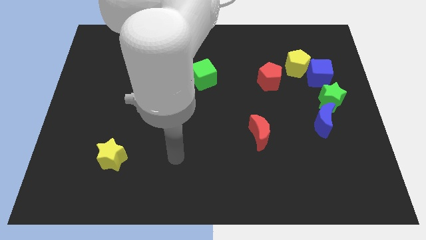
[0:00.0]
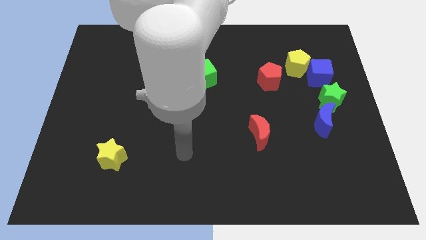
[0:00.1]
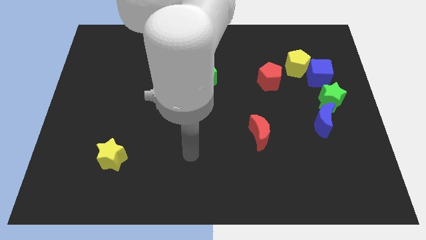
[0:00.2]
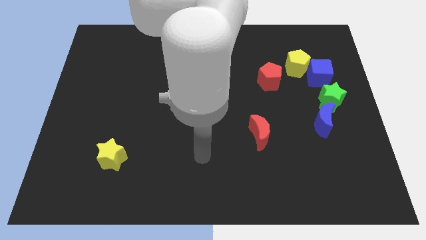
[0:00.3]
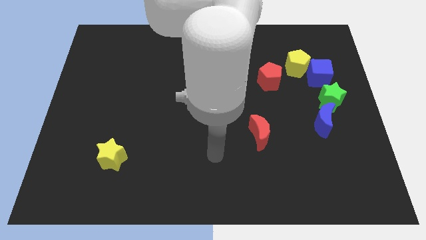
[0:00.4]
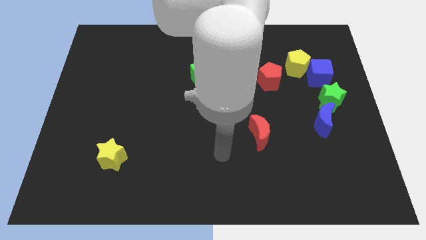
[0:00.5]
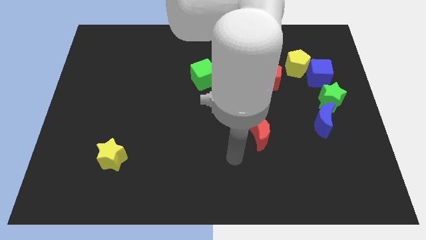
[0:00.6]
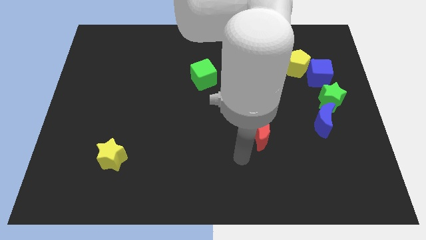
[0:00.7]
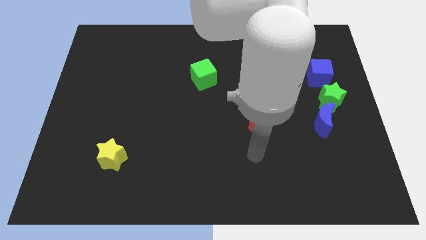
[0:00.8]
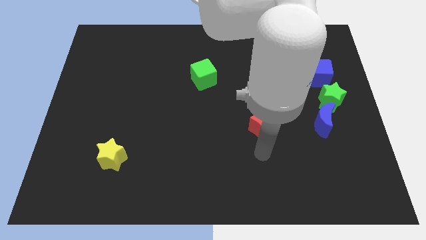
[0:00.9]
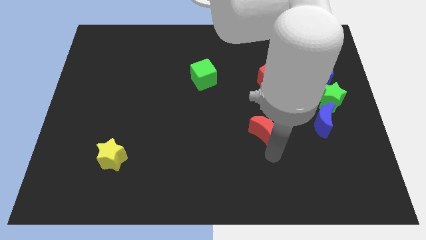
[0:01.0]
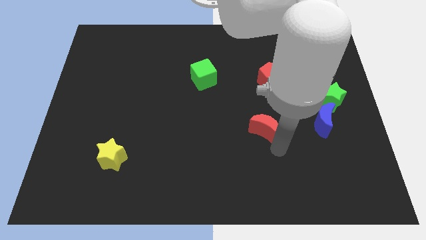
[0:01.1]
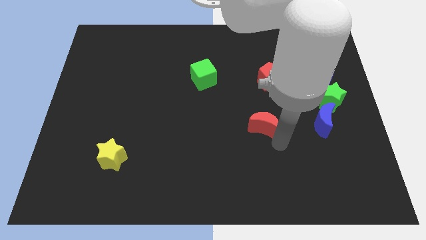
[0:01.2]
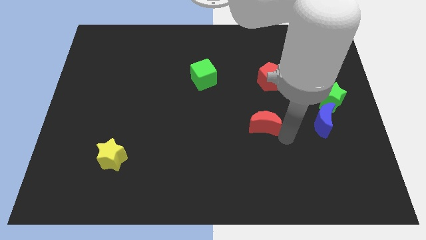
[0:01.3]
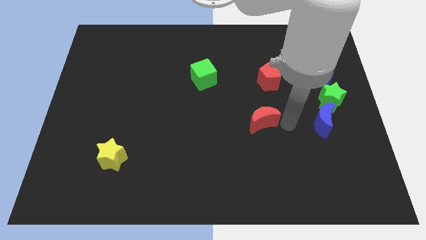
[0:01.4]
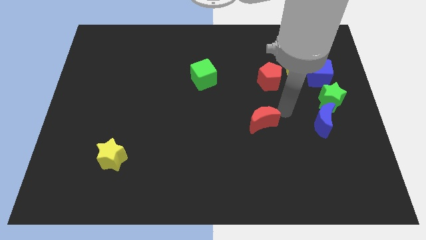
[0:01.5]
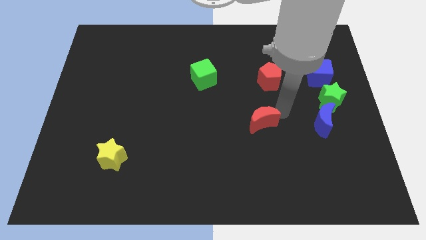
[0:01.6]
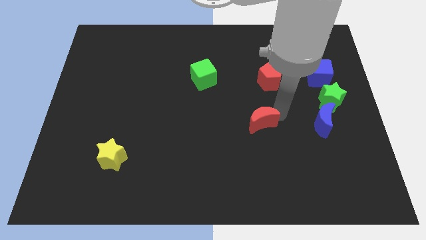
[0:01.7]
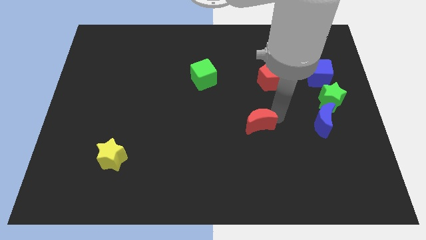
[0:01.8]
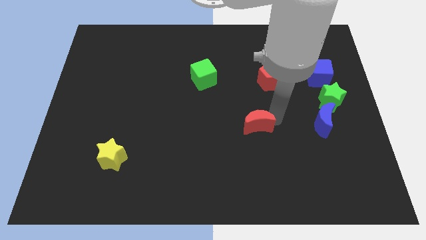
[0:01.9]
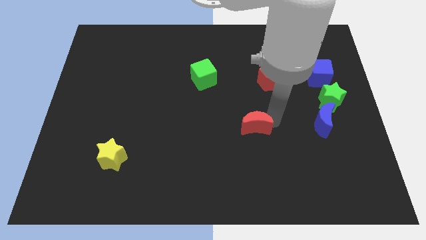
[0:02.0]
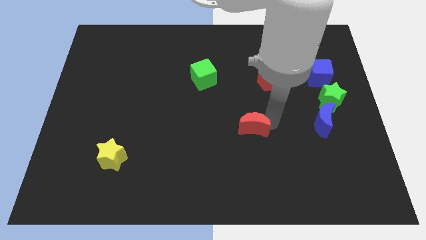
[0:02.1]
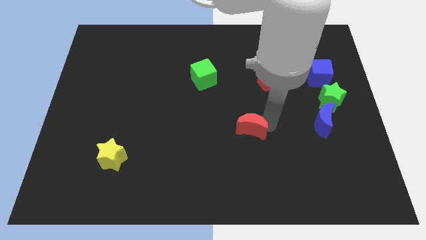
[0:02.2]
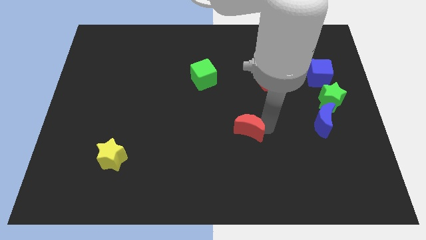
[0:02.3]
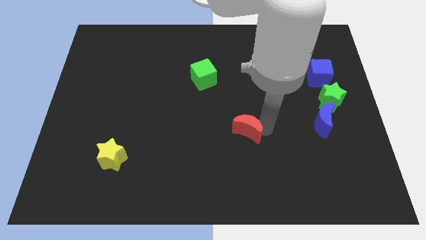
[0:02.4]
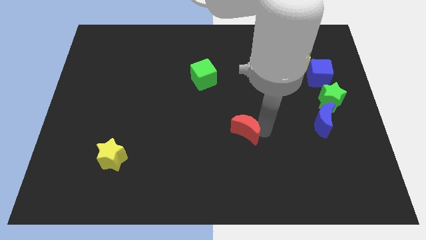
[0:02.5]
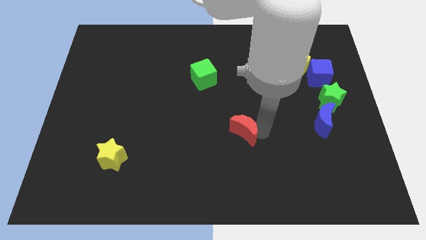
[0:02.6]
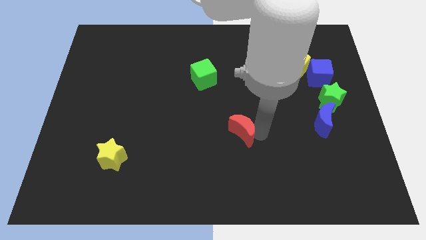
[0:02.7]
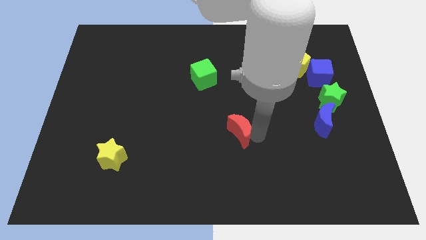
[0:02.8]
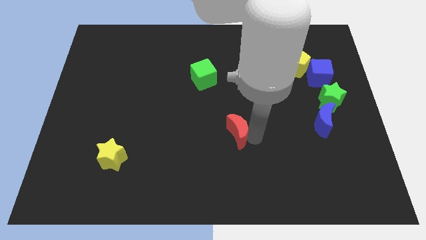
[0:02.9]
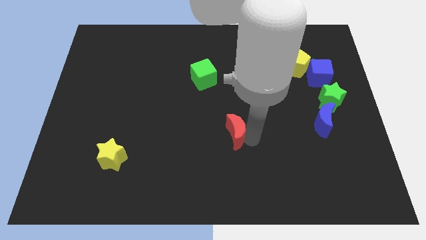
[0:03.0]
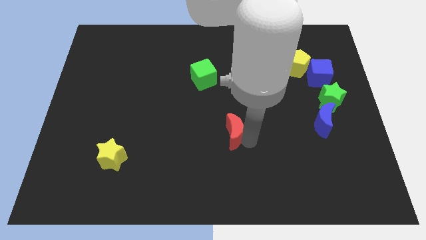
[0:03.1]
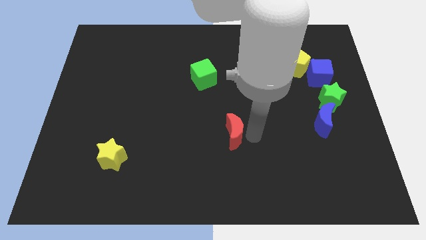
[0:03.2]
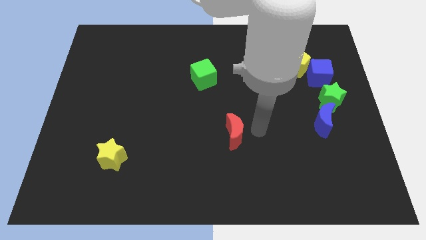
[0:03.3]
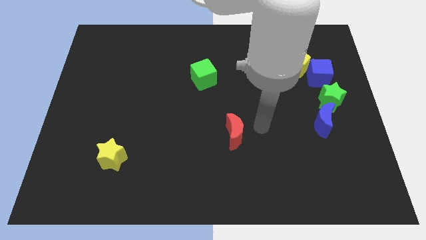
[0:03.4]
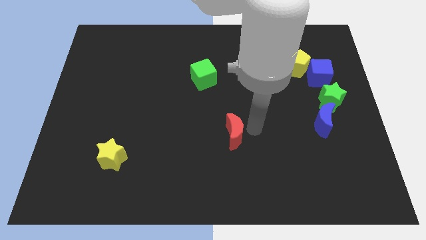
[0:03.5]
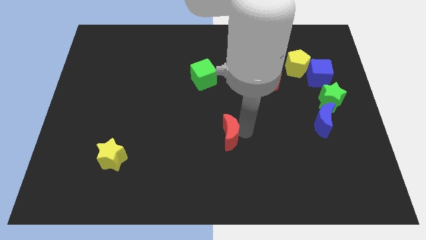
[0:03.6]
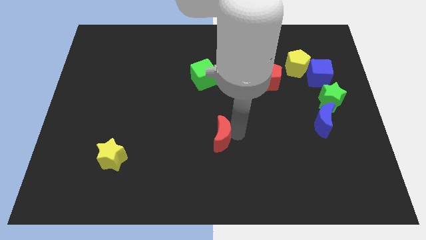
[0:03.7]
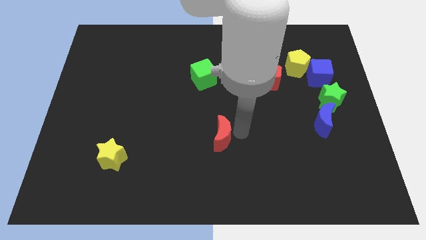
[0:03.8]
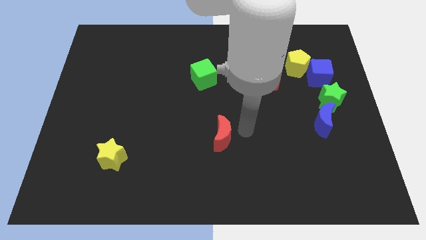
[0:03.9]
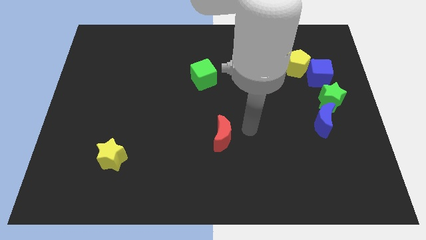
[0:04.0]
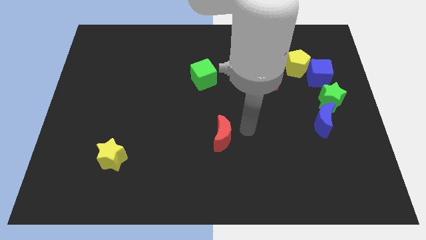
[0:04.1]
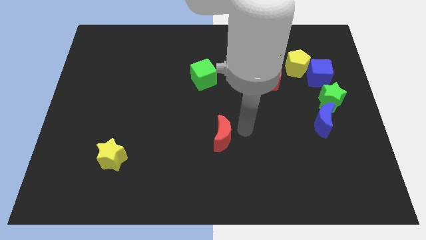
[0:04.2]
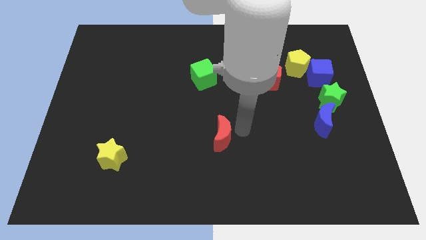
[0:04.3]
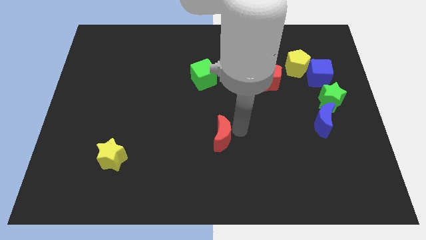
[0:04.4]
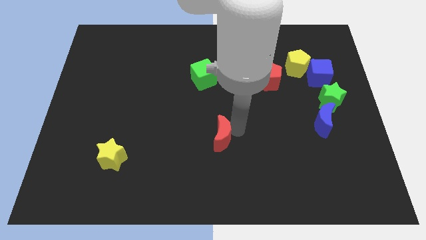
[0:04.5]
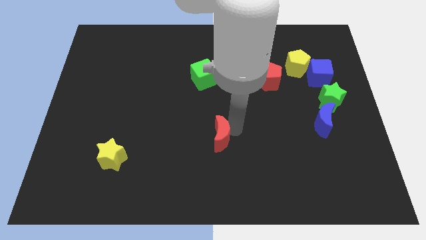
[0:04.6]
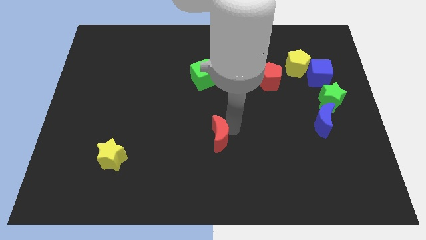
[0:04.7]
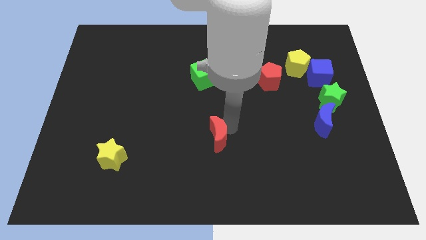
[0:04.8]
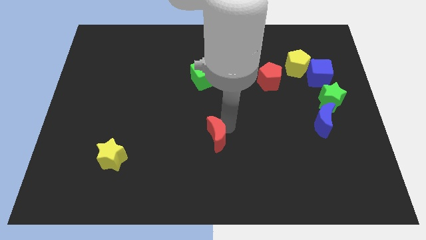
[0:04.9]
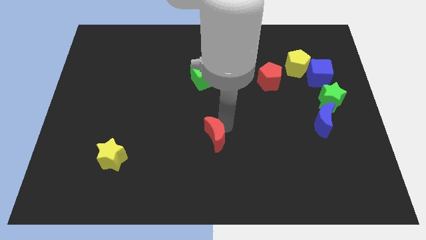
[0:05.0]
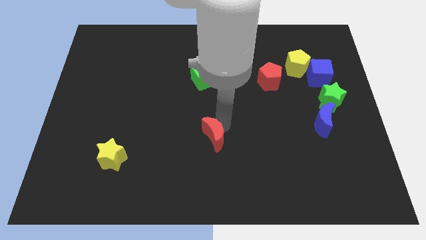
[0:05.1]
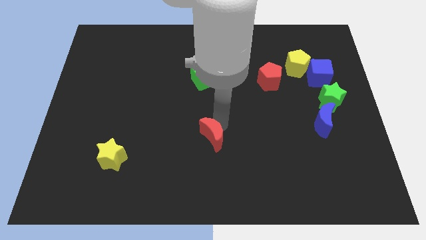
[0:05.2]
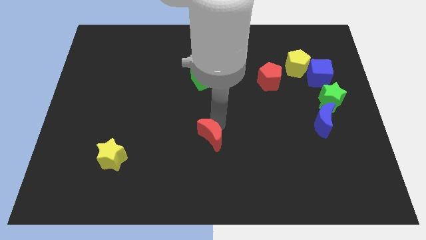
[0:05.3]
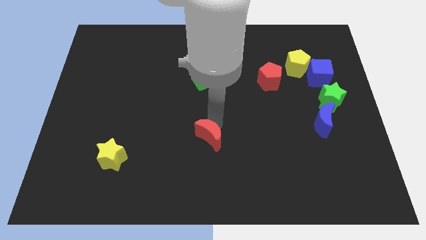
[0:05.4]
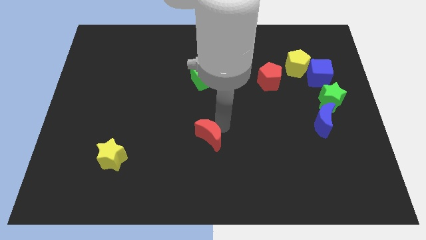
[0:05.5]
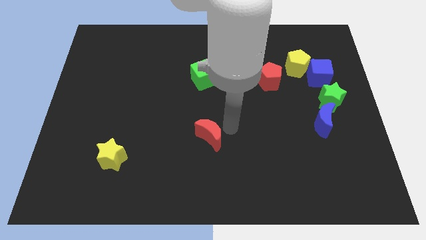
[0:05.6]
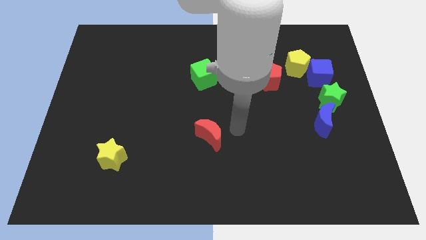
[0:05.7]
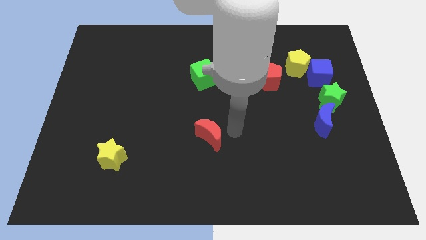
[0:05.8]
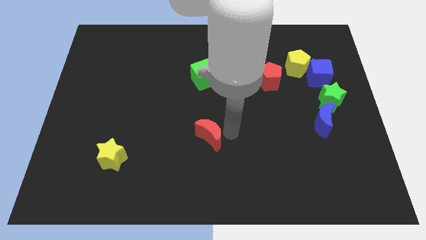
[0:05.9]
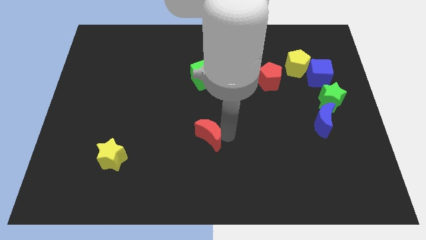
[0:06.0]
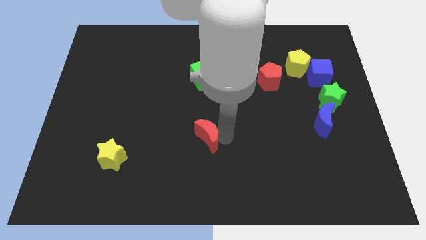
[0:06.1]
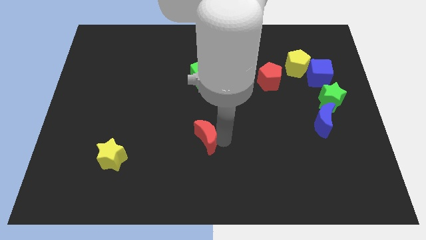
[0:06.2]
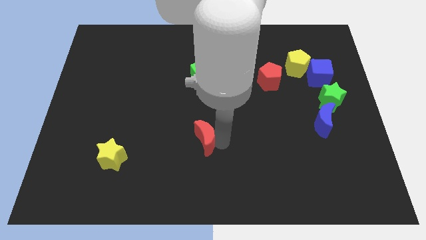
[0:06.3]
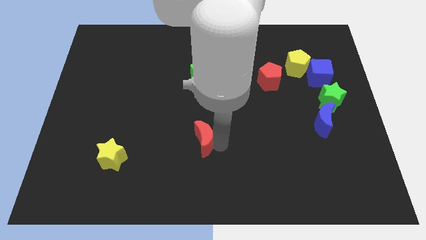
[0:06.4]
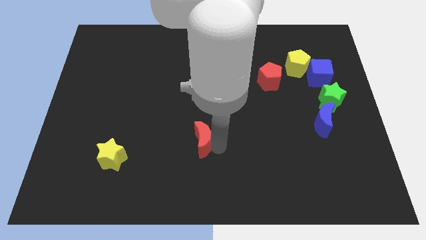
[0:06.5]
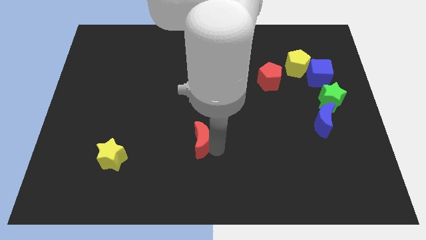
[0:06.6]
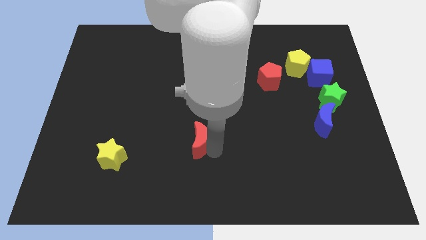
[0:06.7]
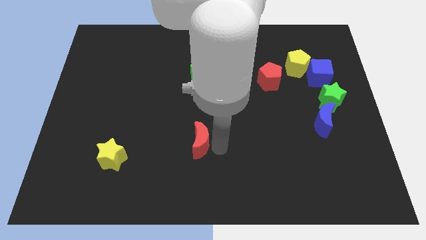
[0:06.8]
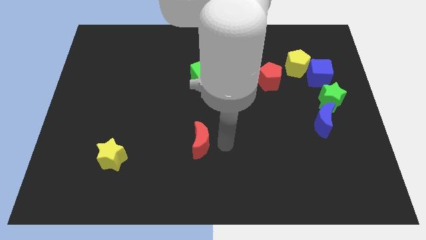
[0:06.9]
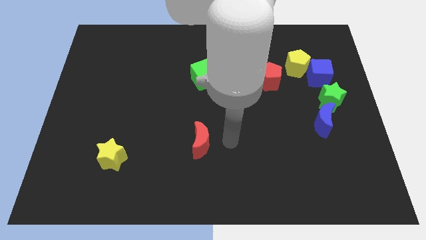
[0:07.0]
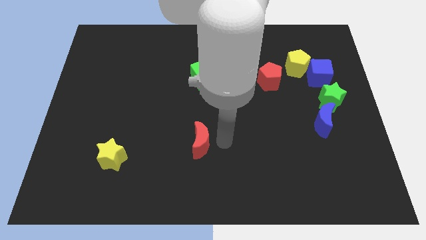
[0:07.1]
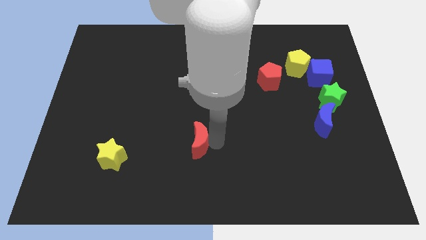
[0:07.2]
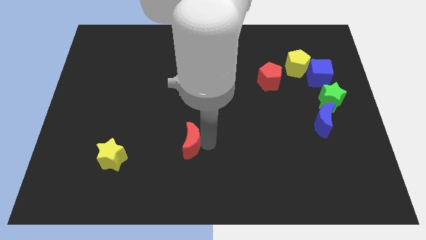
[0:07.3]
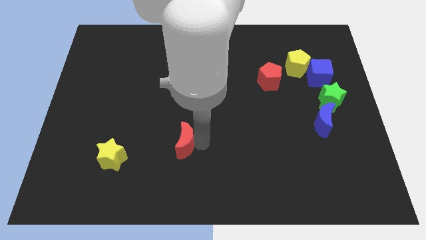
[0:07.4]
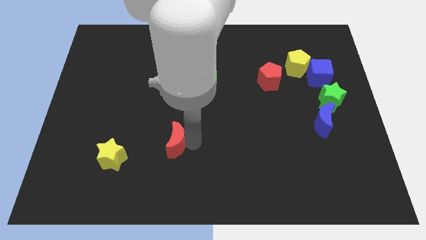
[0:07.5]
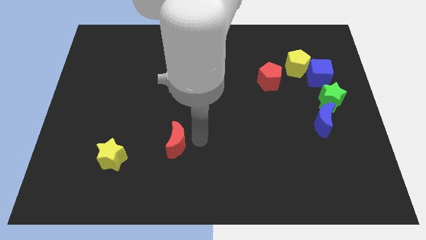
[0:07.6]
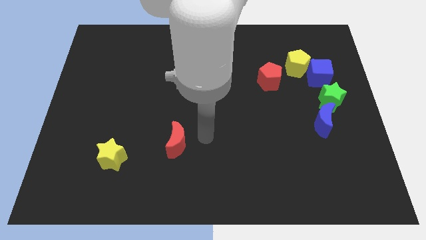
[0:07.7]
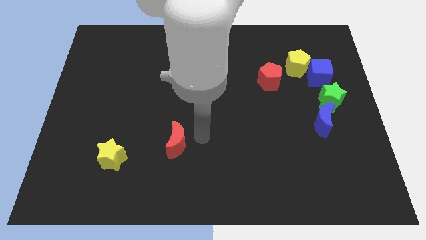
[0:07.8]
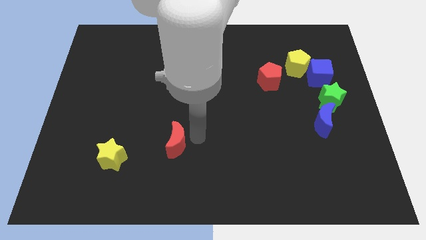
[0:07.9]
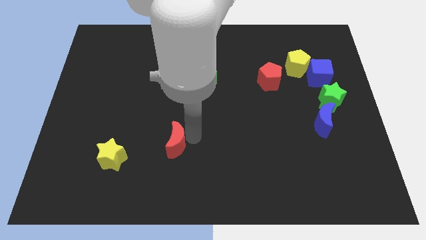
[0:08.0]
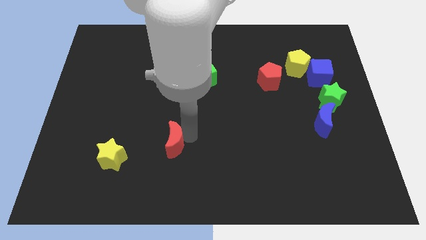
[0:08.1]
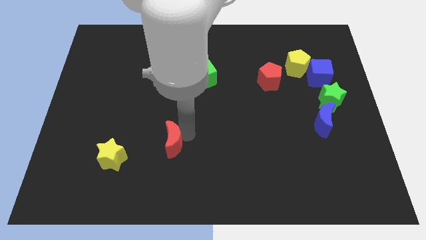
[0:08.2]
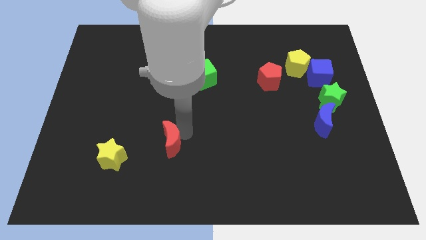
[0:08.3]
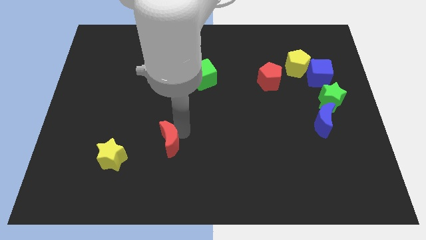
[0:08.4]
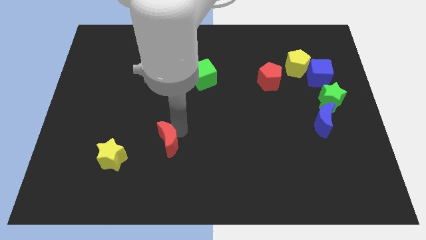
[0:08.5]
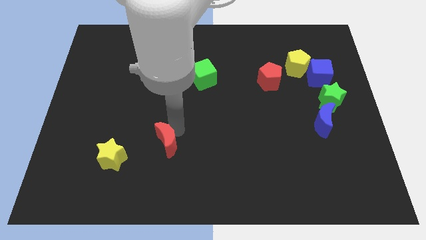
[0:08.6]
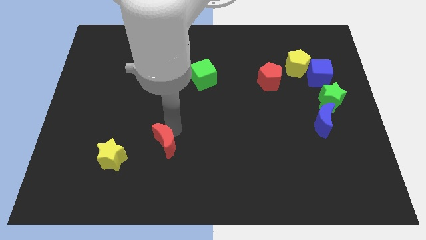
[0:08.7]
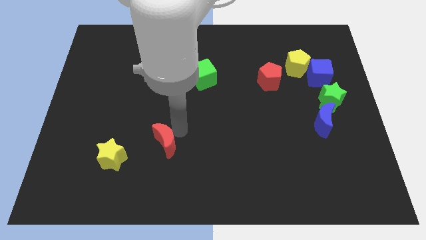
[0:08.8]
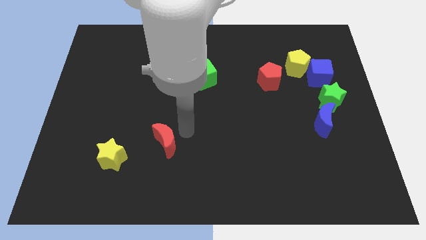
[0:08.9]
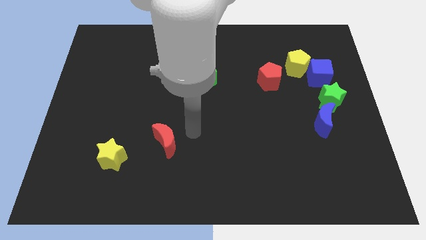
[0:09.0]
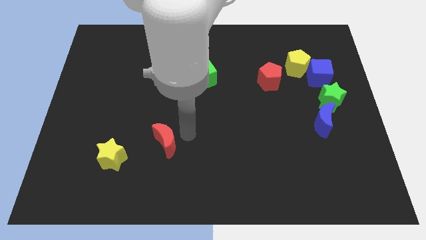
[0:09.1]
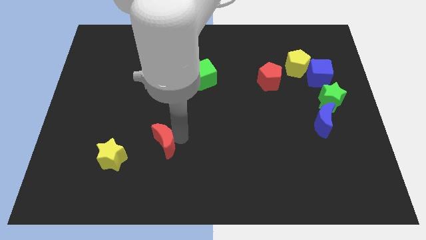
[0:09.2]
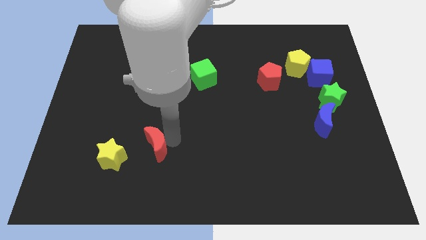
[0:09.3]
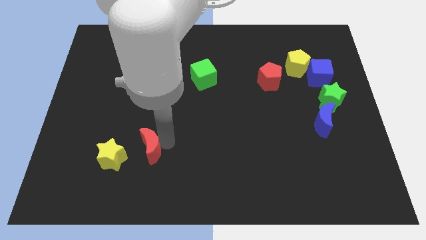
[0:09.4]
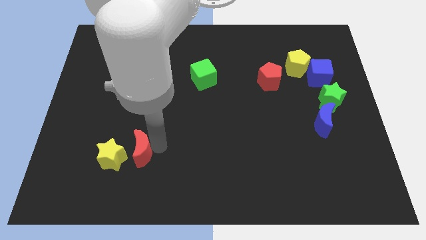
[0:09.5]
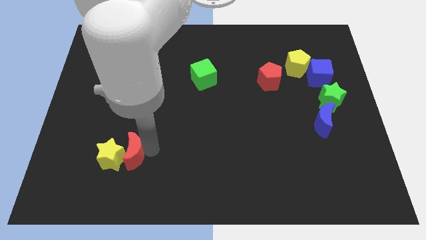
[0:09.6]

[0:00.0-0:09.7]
push the red moon towards the yellow star
